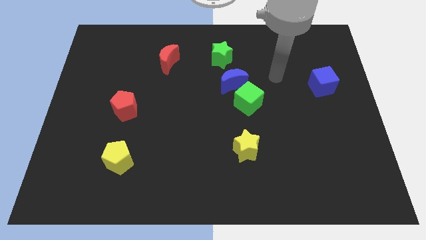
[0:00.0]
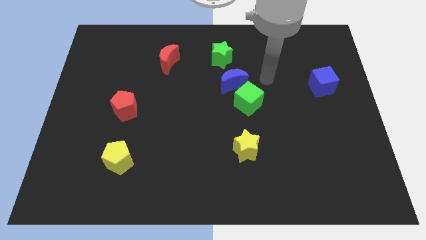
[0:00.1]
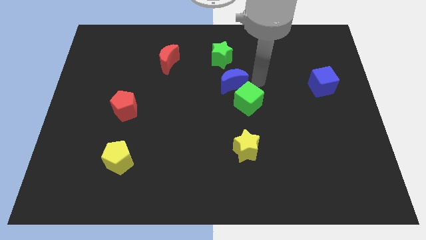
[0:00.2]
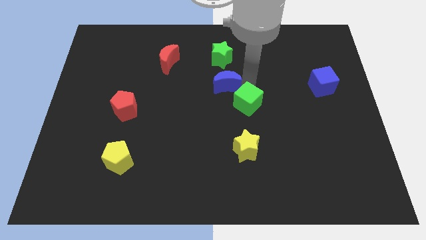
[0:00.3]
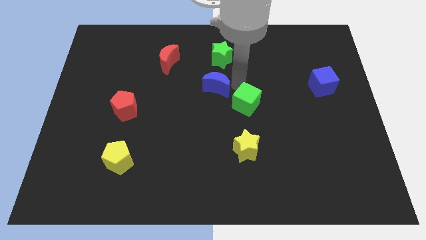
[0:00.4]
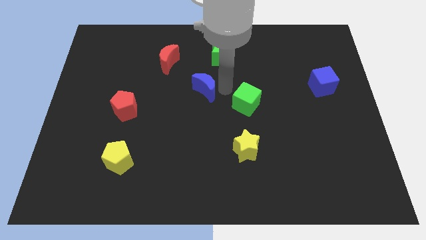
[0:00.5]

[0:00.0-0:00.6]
separate the green cube from the blue moon

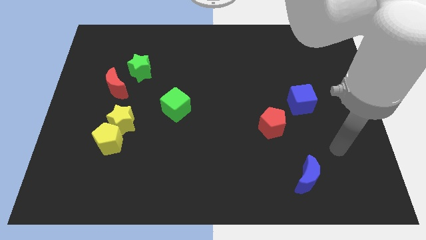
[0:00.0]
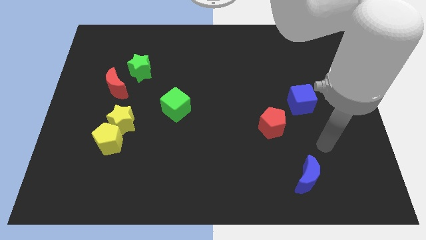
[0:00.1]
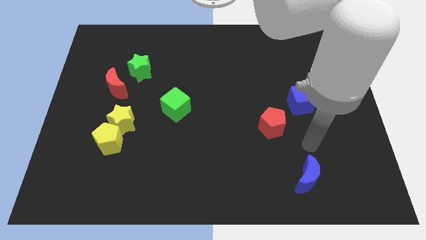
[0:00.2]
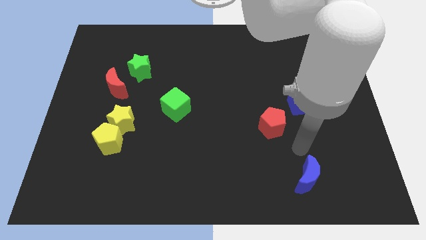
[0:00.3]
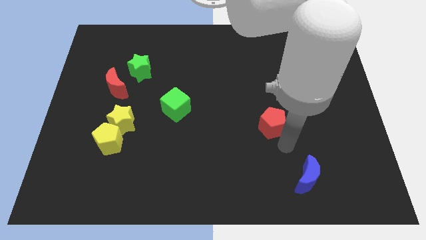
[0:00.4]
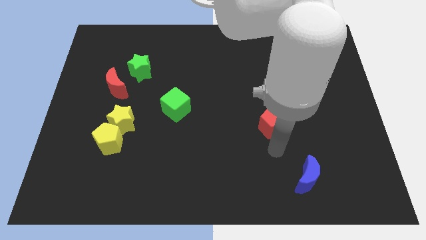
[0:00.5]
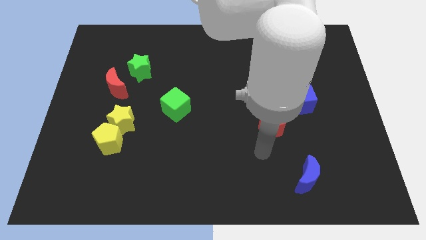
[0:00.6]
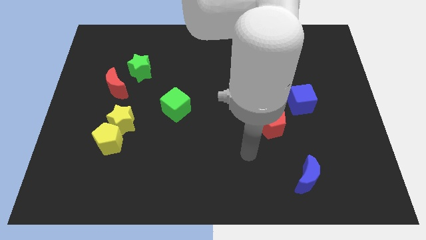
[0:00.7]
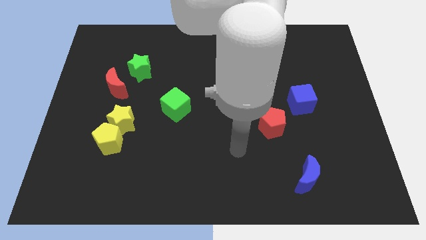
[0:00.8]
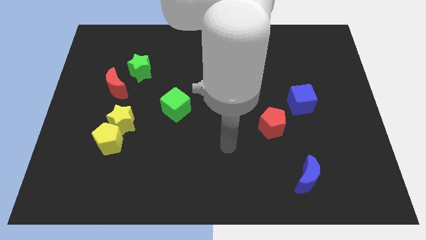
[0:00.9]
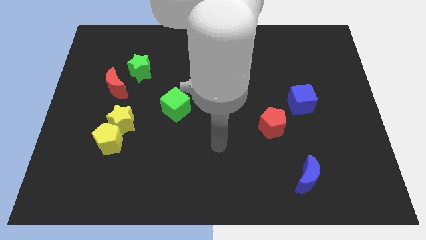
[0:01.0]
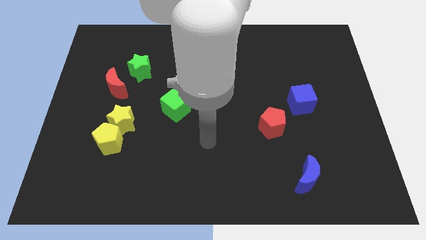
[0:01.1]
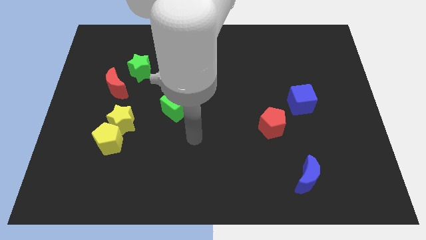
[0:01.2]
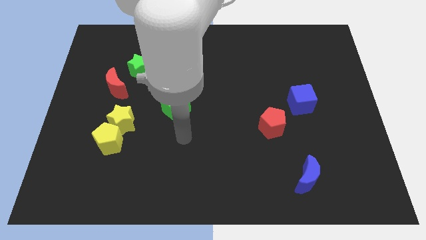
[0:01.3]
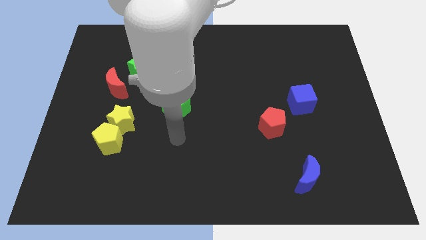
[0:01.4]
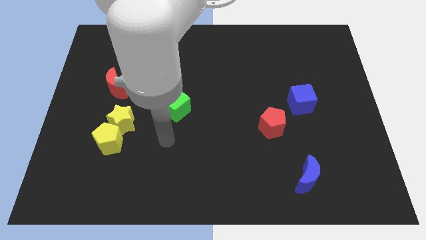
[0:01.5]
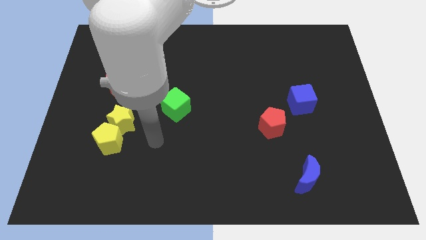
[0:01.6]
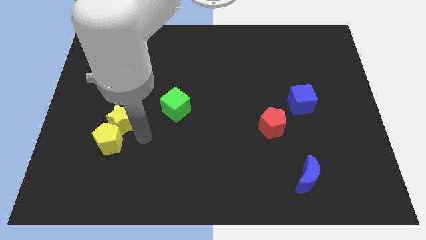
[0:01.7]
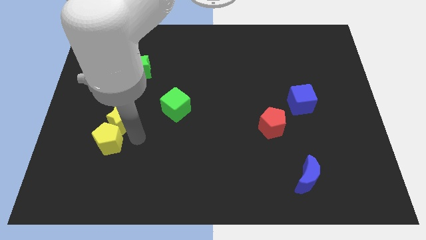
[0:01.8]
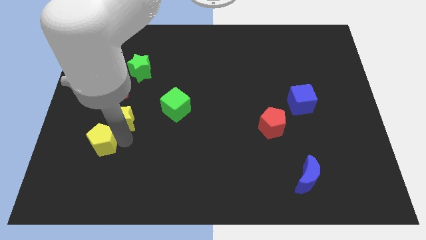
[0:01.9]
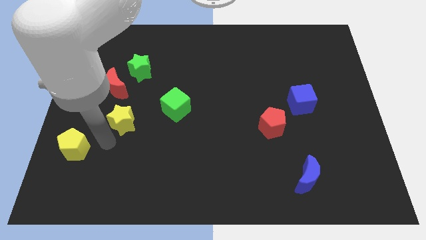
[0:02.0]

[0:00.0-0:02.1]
pull the yellow star apart from the yellow pentagon

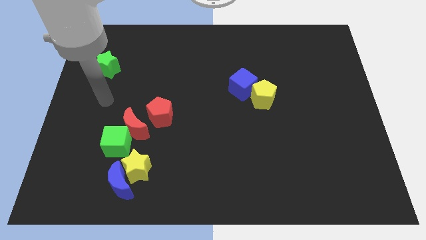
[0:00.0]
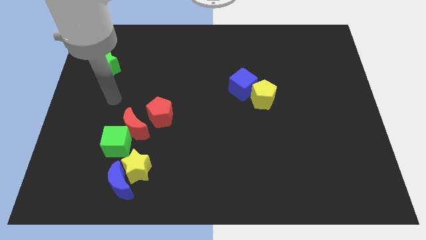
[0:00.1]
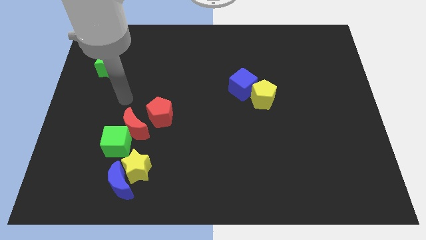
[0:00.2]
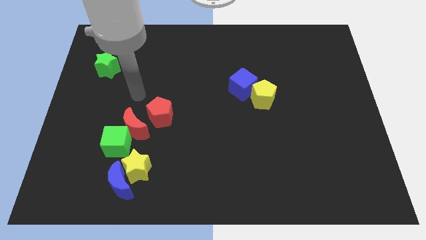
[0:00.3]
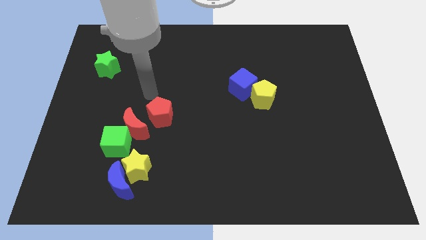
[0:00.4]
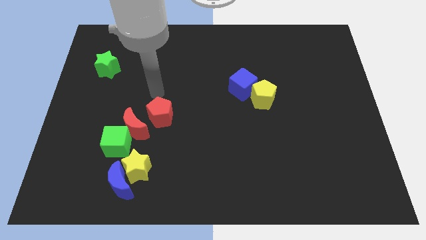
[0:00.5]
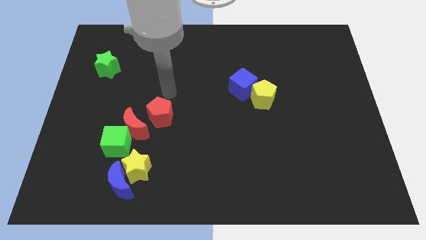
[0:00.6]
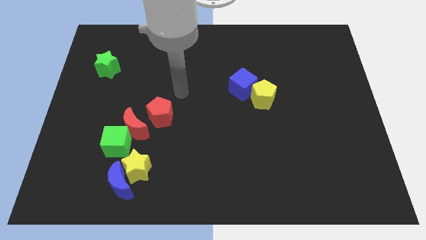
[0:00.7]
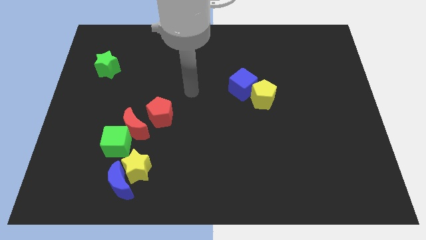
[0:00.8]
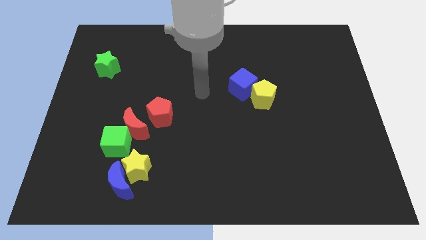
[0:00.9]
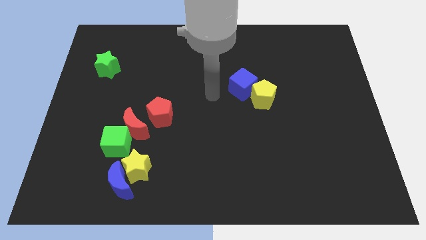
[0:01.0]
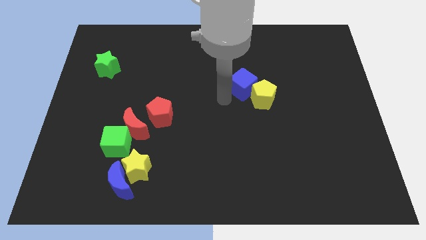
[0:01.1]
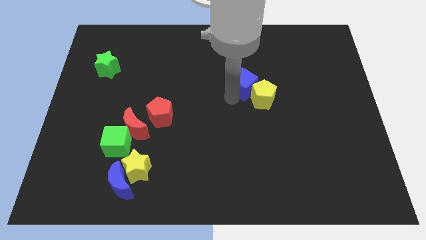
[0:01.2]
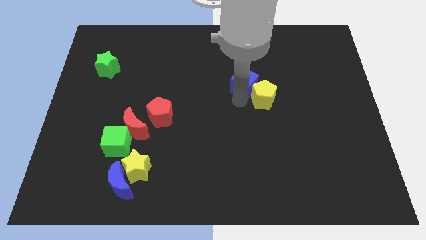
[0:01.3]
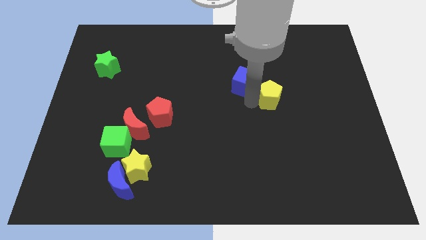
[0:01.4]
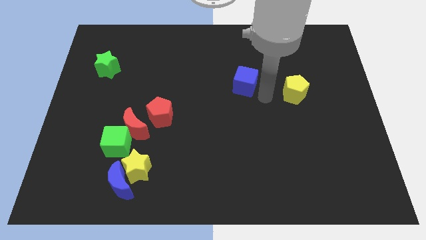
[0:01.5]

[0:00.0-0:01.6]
pull the blue cube apart from the yellow pentagon

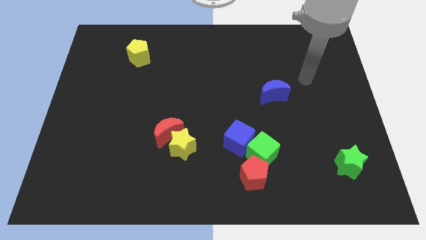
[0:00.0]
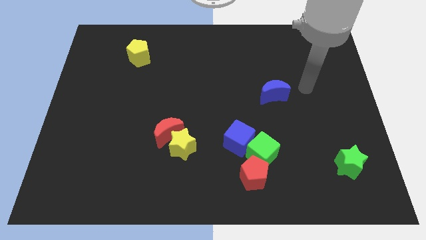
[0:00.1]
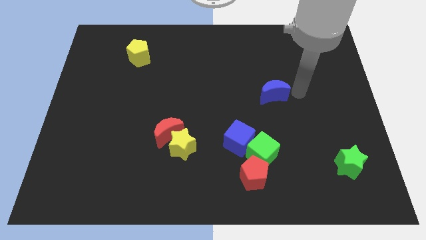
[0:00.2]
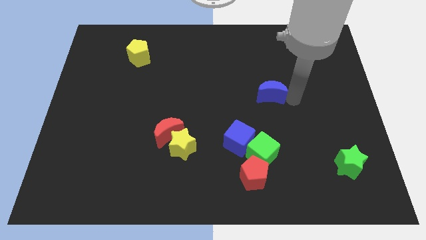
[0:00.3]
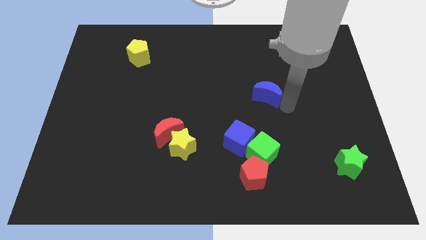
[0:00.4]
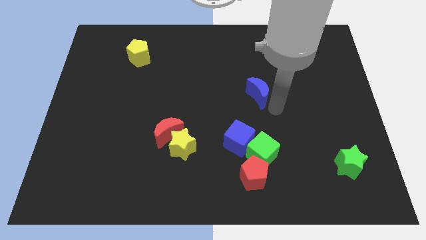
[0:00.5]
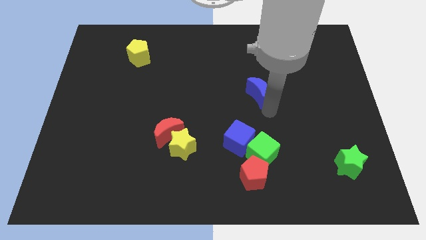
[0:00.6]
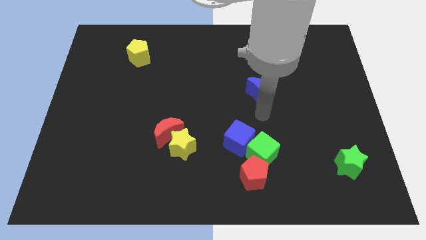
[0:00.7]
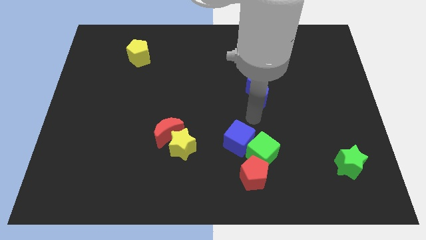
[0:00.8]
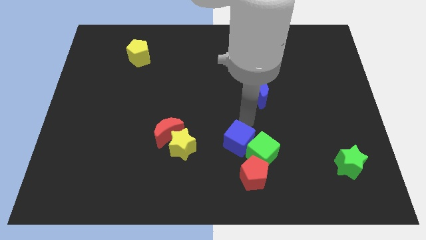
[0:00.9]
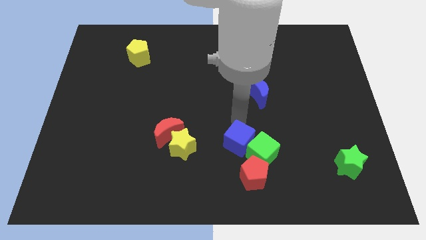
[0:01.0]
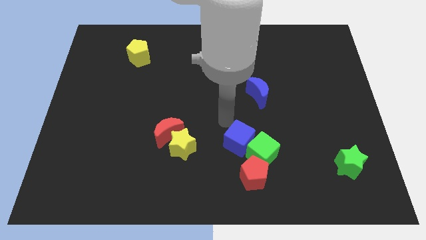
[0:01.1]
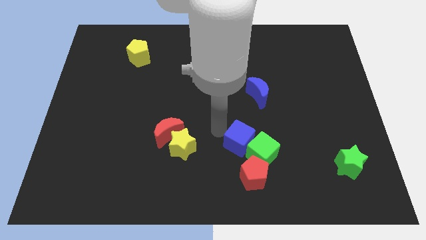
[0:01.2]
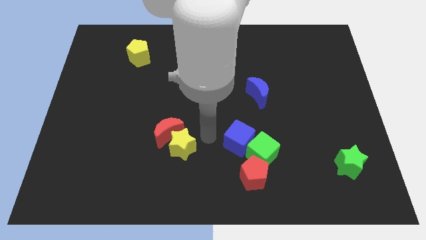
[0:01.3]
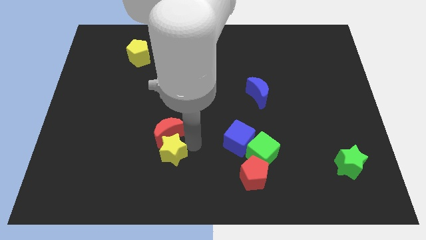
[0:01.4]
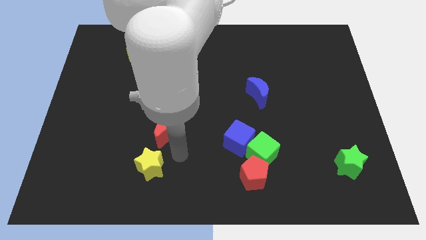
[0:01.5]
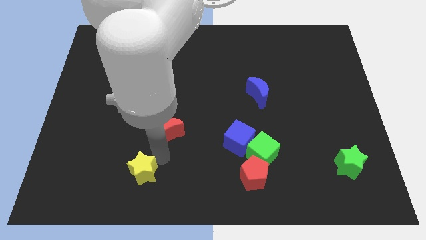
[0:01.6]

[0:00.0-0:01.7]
pull the red moon apart from the yellow star

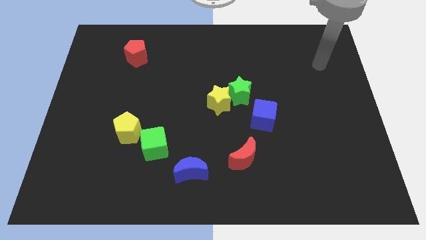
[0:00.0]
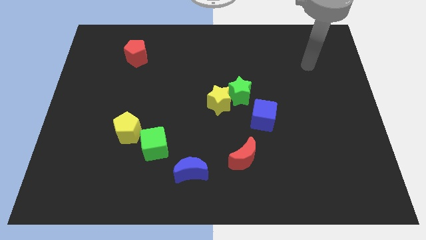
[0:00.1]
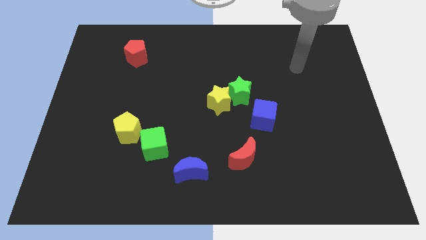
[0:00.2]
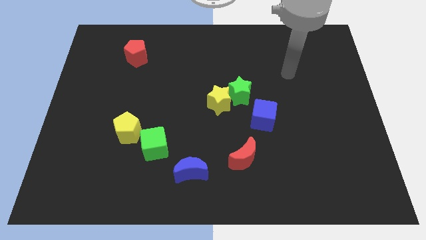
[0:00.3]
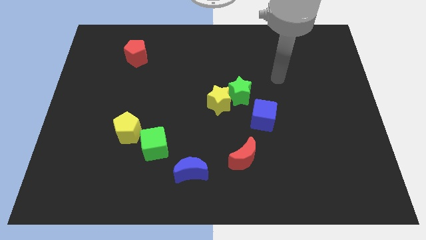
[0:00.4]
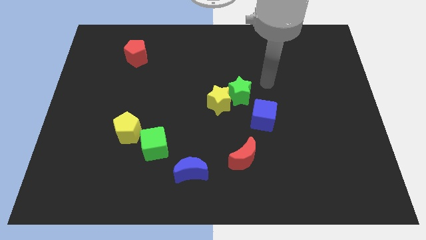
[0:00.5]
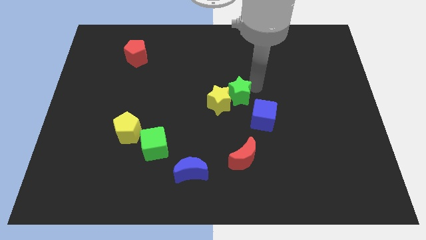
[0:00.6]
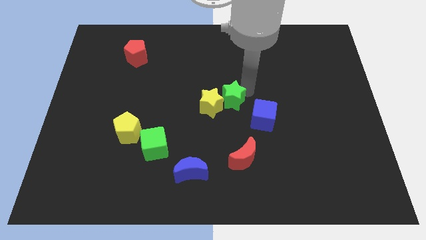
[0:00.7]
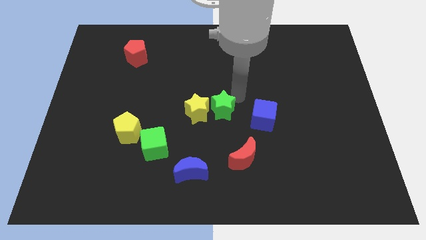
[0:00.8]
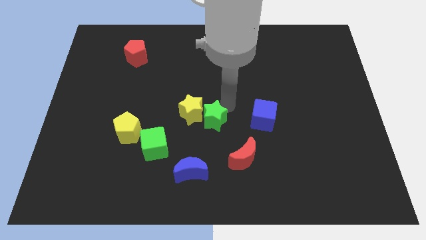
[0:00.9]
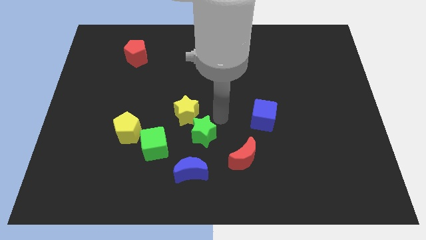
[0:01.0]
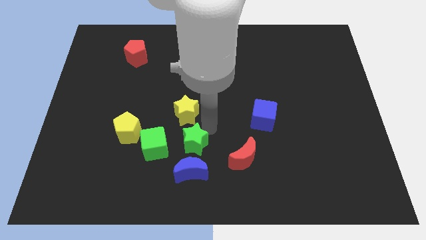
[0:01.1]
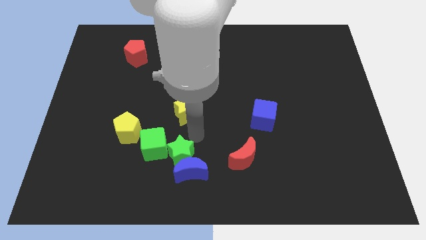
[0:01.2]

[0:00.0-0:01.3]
separate the yellow star from the green star

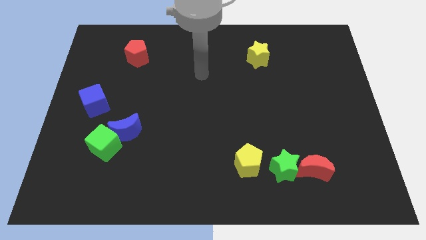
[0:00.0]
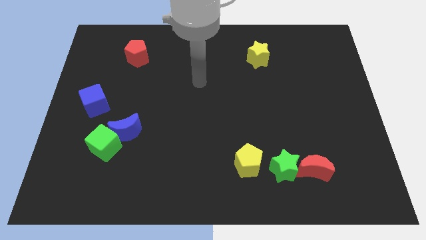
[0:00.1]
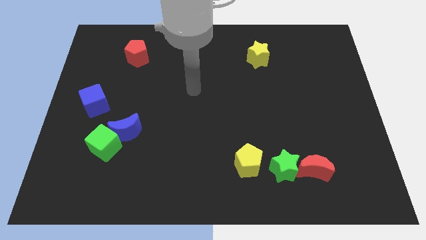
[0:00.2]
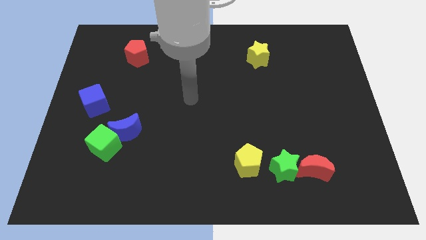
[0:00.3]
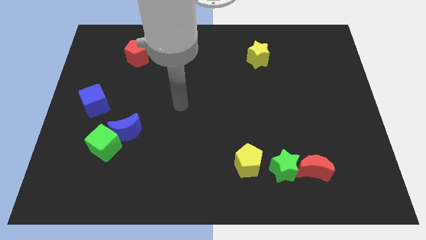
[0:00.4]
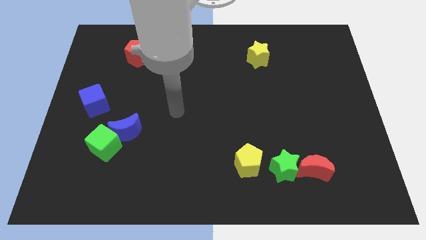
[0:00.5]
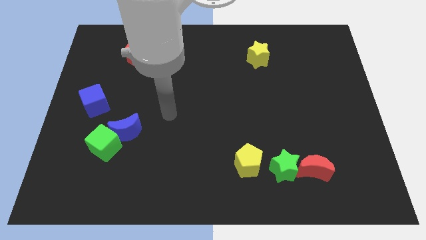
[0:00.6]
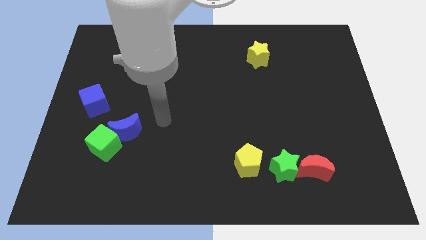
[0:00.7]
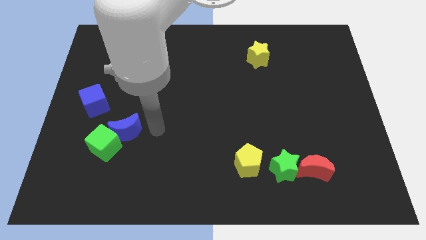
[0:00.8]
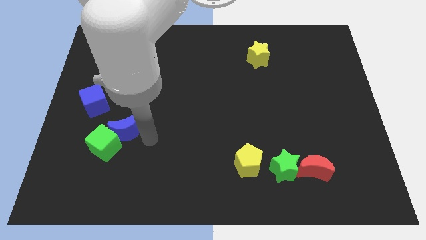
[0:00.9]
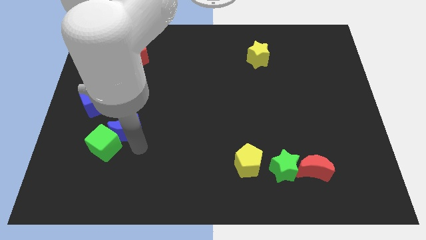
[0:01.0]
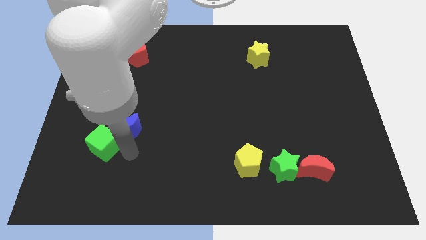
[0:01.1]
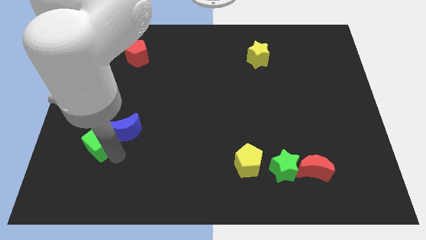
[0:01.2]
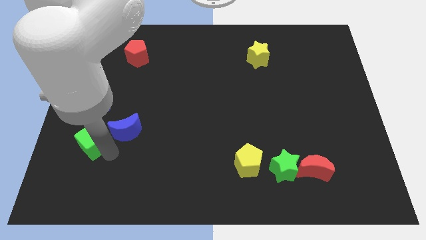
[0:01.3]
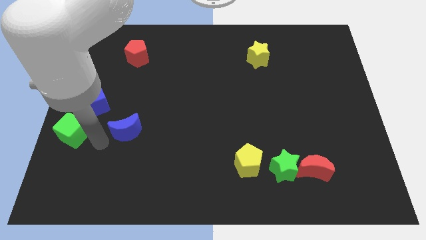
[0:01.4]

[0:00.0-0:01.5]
separate the blue moon from the green cube

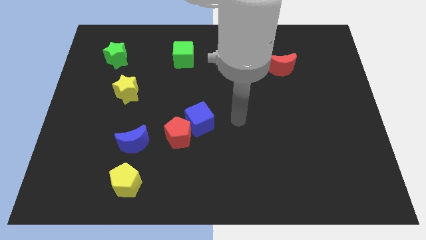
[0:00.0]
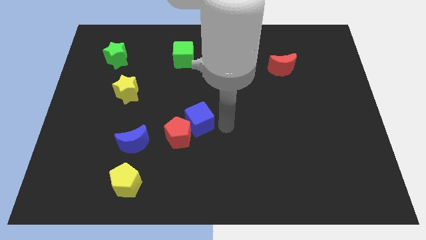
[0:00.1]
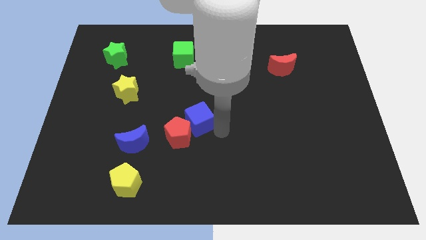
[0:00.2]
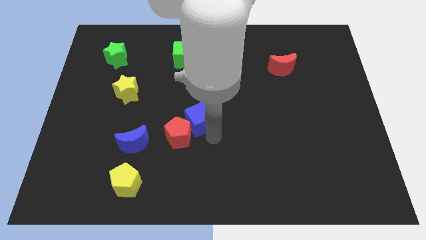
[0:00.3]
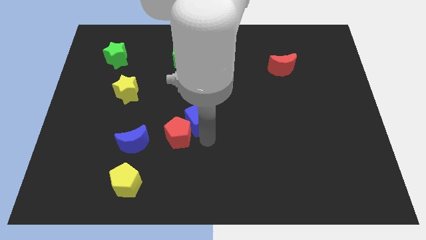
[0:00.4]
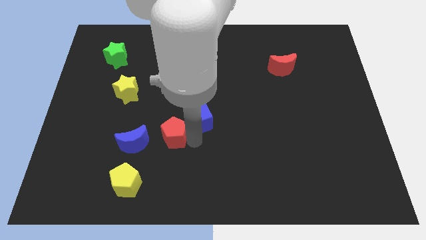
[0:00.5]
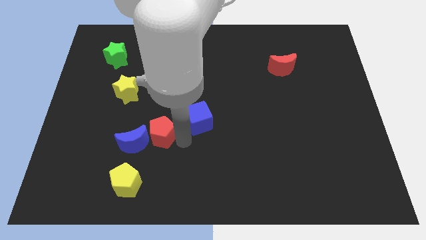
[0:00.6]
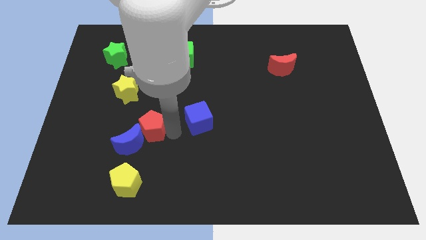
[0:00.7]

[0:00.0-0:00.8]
move the blue cube away from the red pentagon
